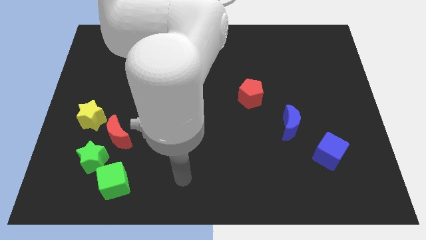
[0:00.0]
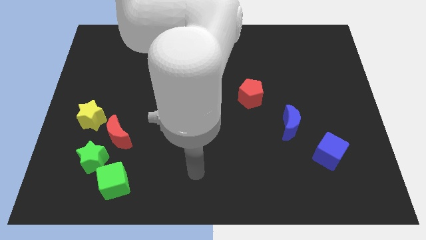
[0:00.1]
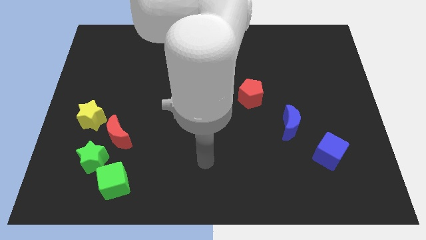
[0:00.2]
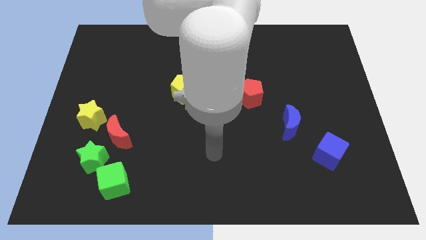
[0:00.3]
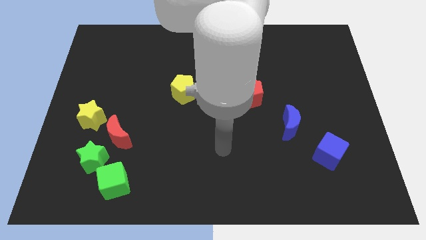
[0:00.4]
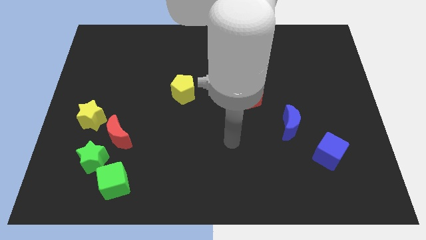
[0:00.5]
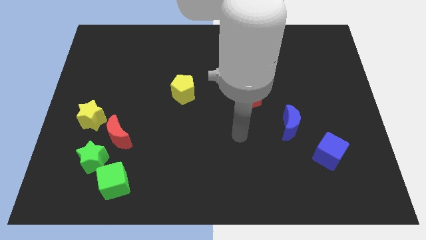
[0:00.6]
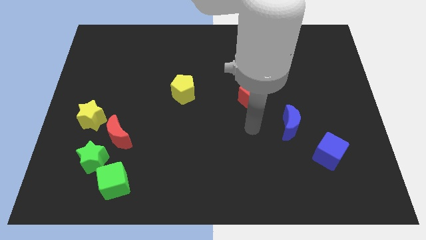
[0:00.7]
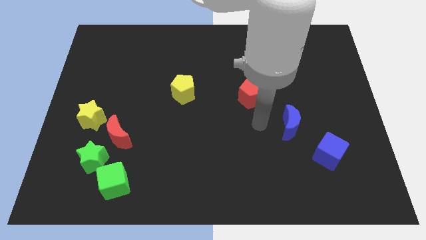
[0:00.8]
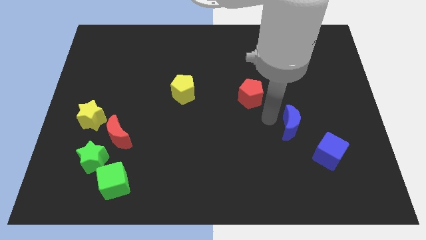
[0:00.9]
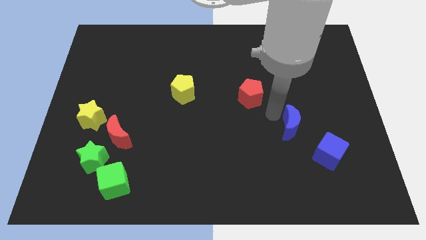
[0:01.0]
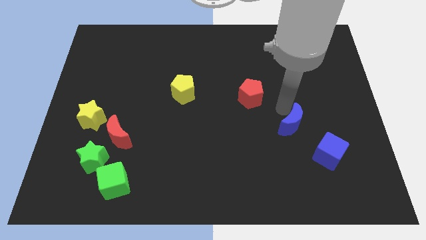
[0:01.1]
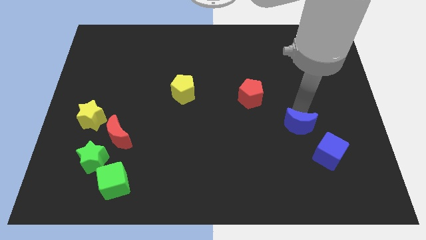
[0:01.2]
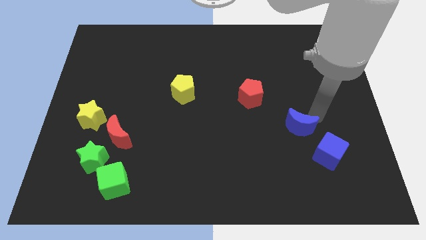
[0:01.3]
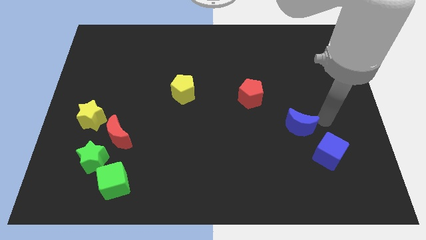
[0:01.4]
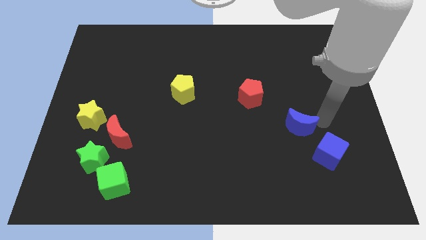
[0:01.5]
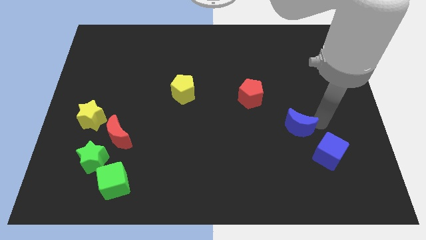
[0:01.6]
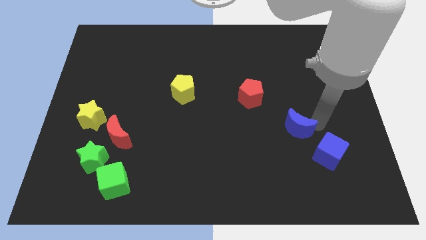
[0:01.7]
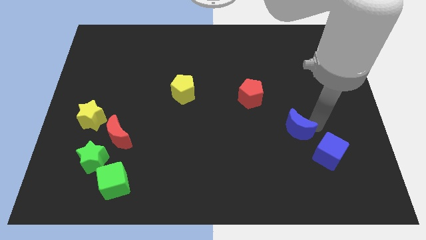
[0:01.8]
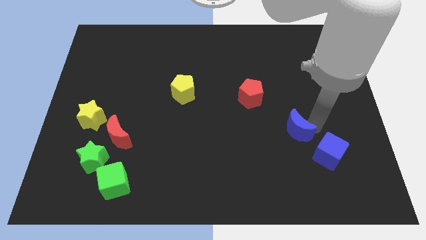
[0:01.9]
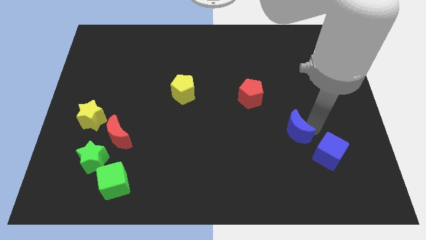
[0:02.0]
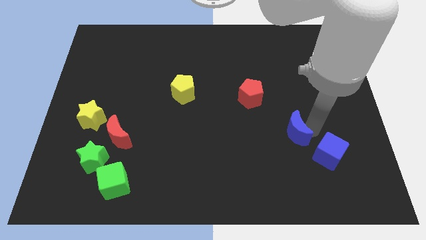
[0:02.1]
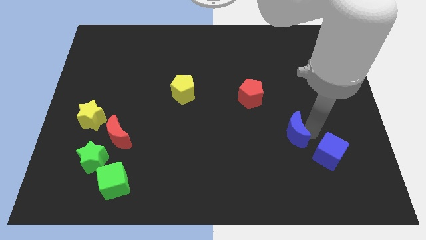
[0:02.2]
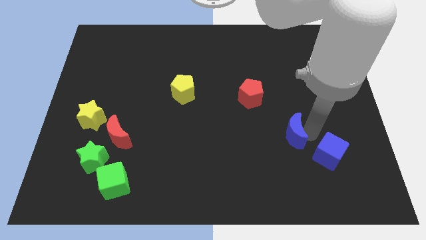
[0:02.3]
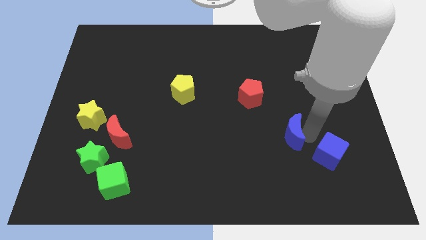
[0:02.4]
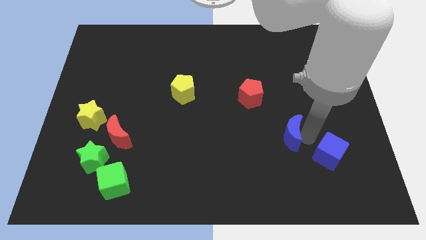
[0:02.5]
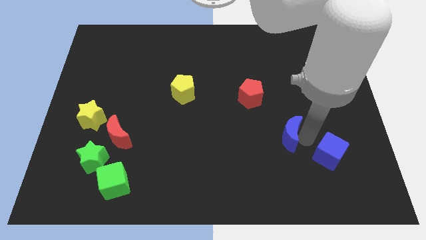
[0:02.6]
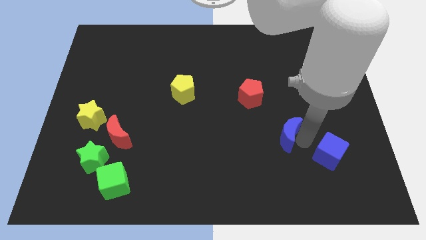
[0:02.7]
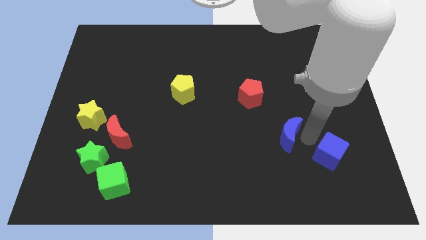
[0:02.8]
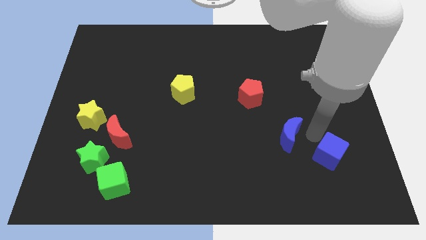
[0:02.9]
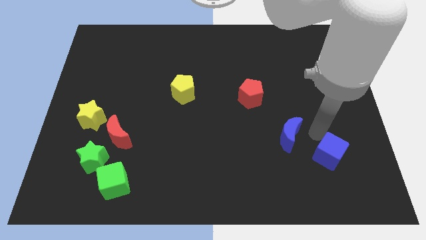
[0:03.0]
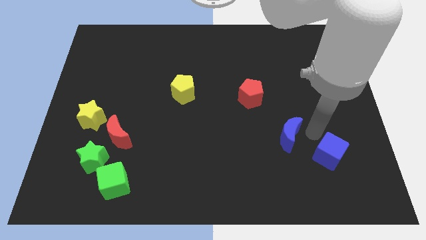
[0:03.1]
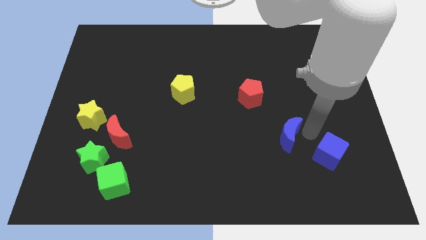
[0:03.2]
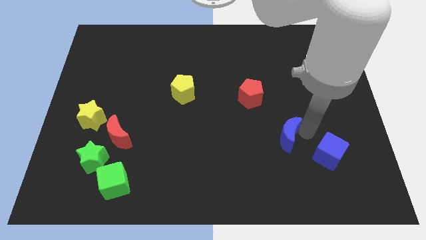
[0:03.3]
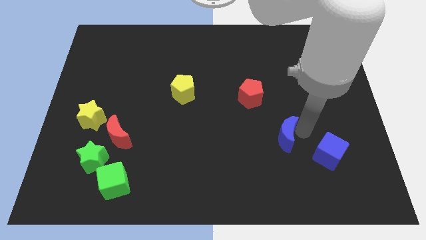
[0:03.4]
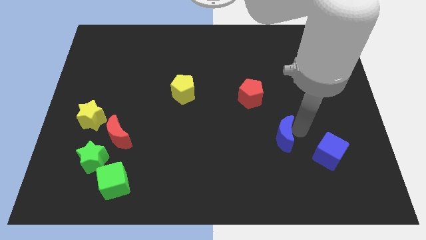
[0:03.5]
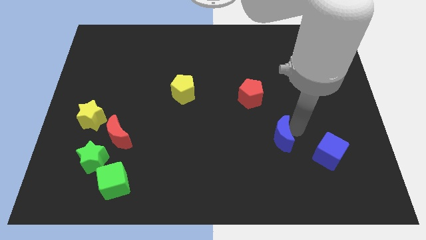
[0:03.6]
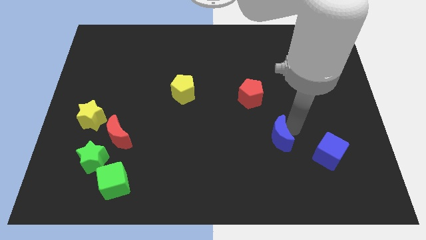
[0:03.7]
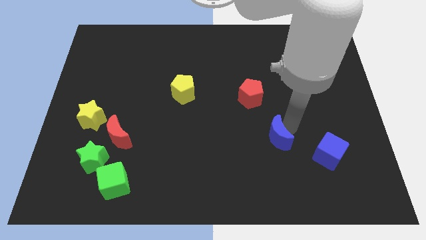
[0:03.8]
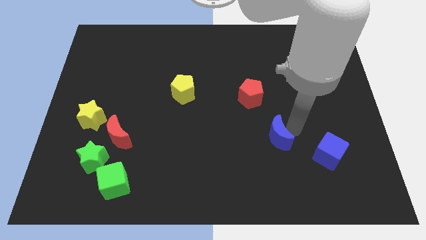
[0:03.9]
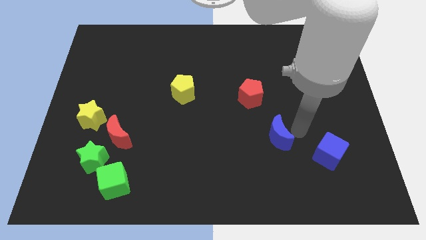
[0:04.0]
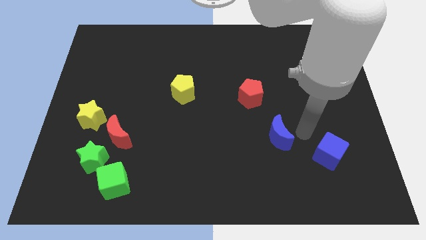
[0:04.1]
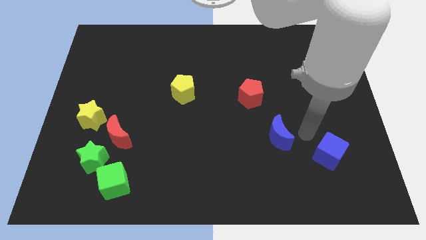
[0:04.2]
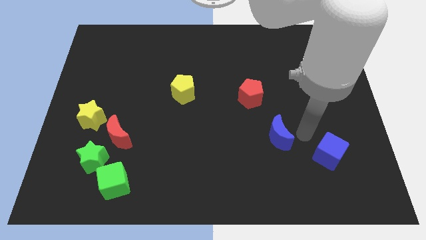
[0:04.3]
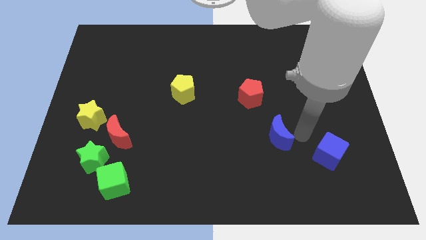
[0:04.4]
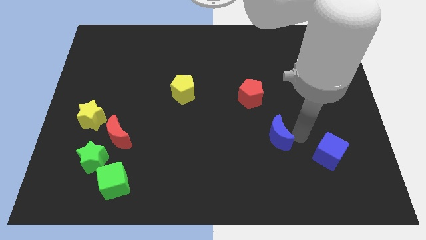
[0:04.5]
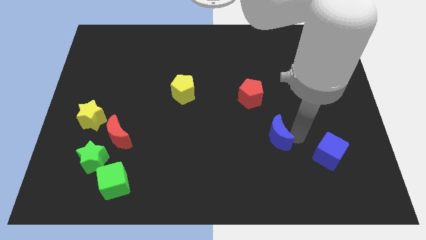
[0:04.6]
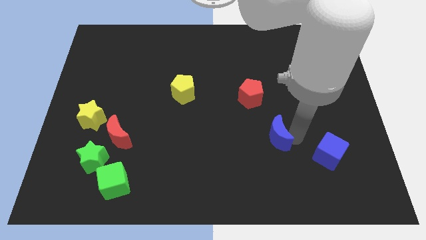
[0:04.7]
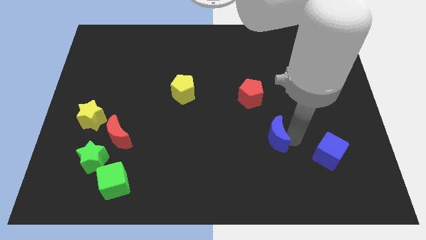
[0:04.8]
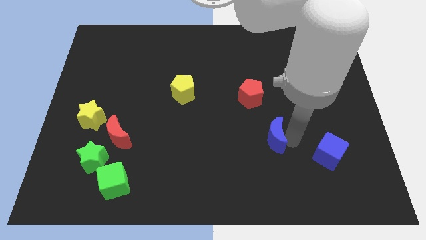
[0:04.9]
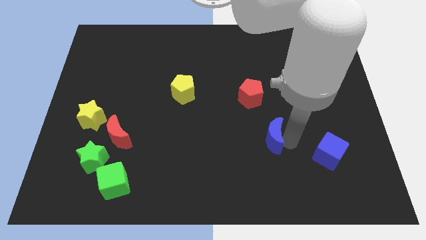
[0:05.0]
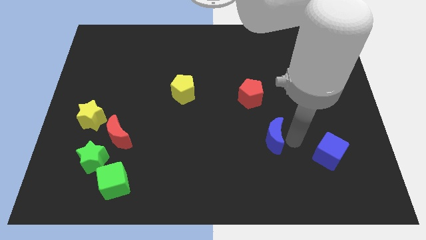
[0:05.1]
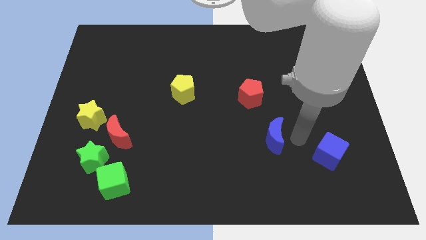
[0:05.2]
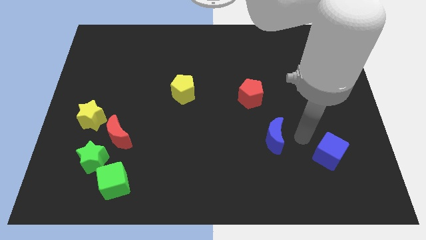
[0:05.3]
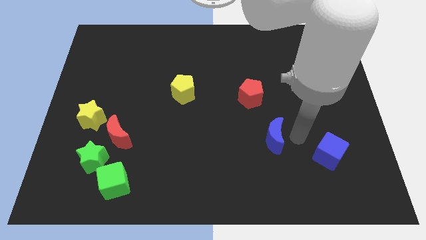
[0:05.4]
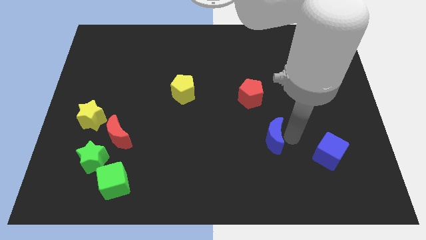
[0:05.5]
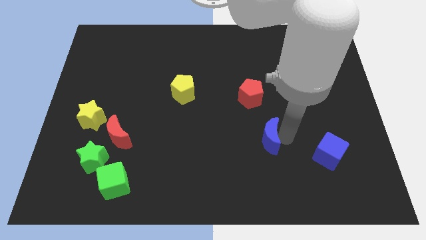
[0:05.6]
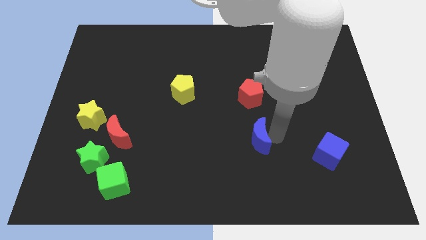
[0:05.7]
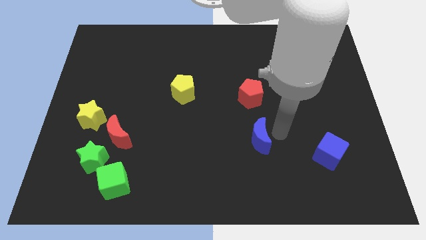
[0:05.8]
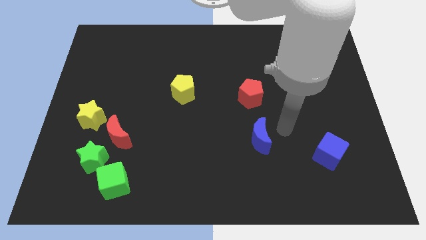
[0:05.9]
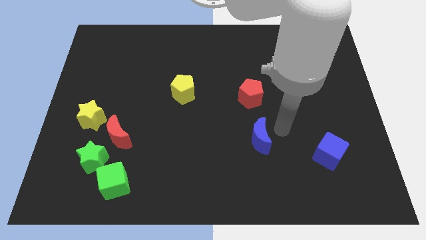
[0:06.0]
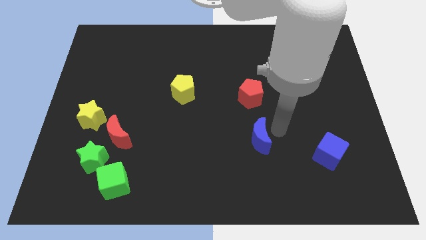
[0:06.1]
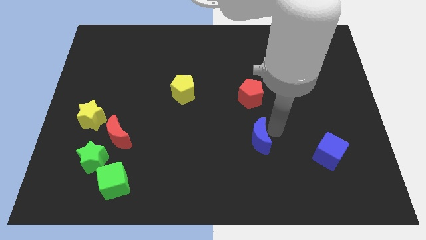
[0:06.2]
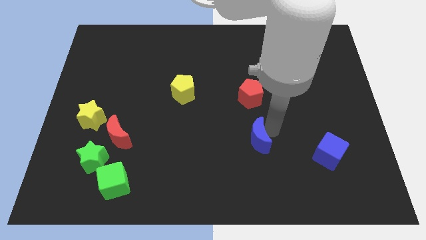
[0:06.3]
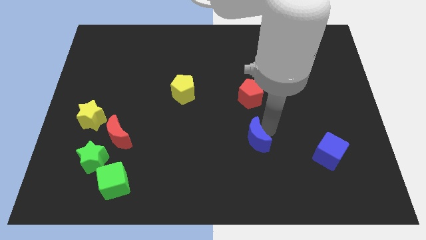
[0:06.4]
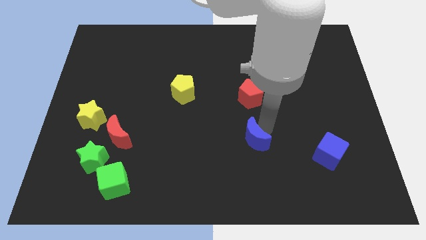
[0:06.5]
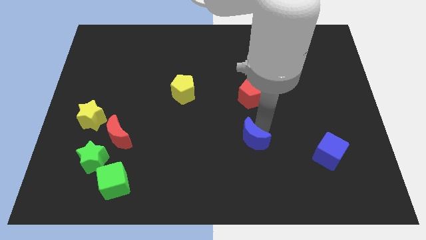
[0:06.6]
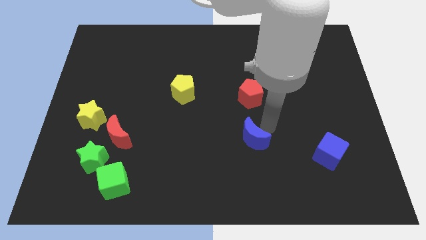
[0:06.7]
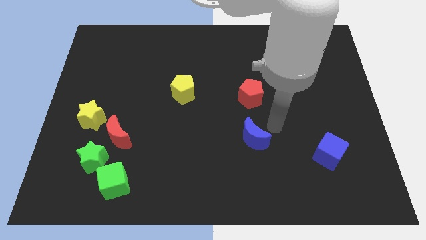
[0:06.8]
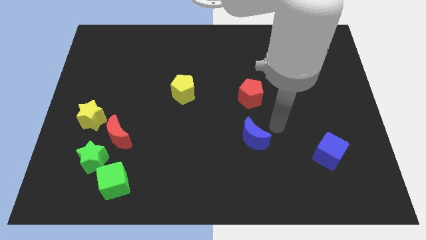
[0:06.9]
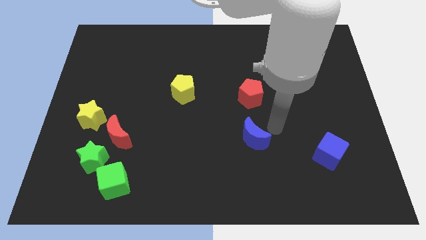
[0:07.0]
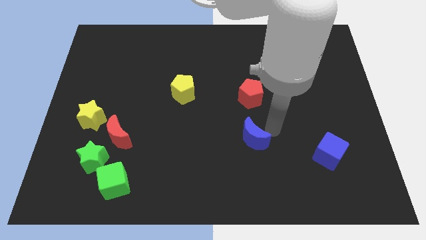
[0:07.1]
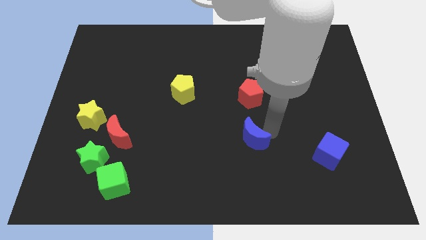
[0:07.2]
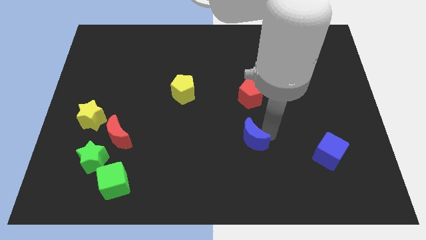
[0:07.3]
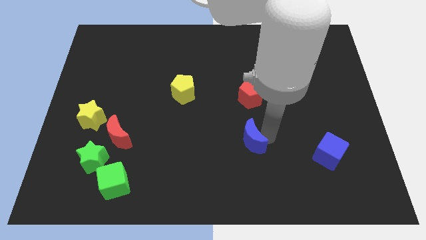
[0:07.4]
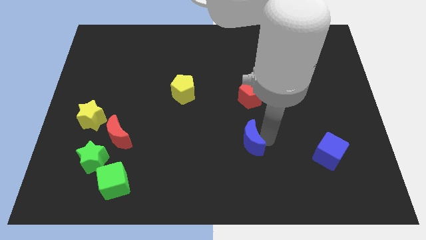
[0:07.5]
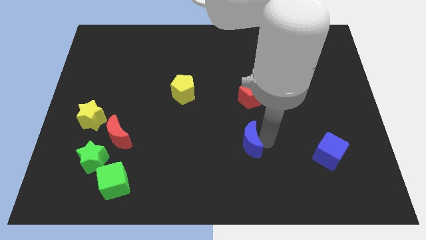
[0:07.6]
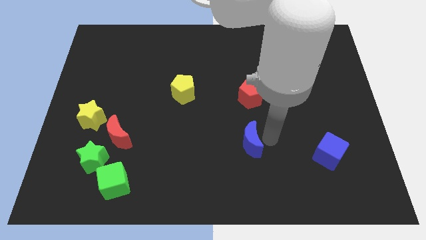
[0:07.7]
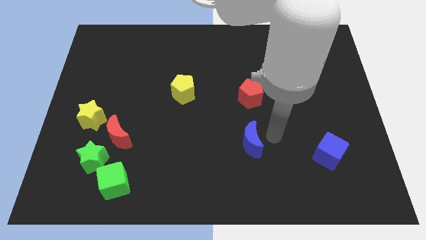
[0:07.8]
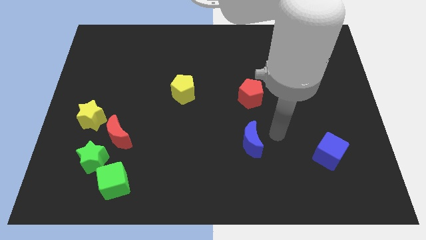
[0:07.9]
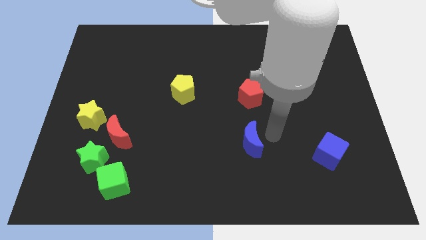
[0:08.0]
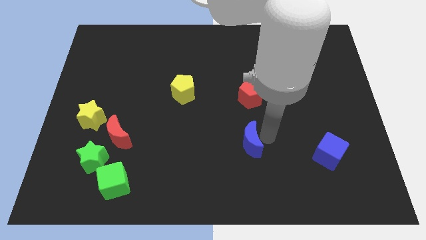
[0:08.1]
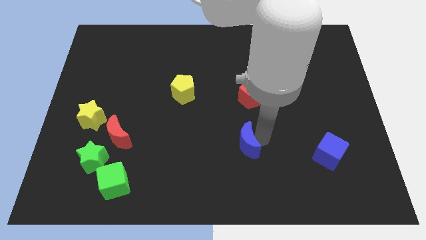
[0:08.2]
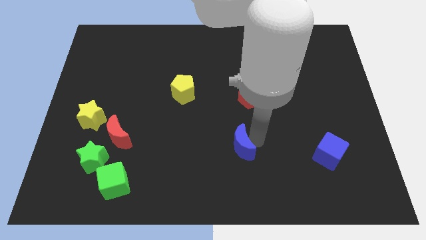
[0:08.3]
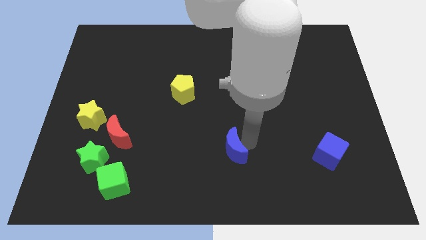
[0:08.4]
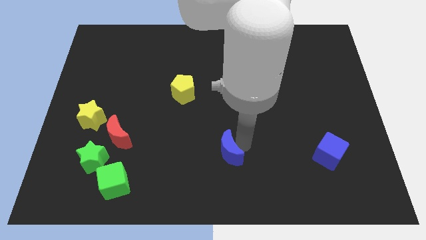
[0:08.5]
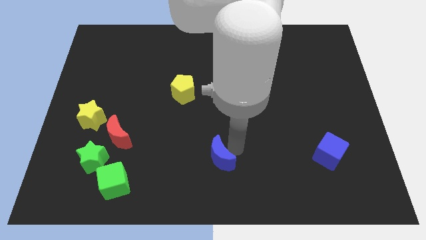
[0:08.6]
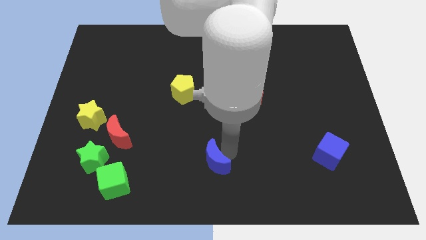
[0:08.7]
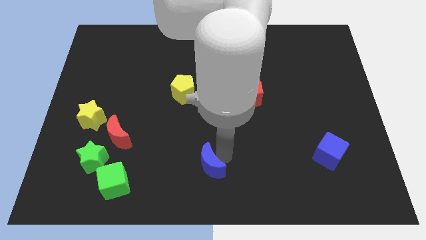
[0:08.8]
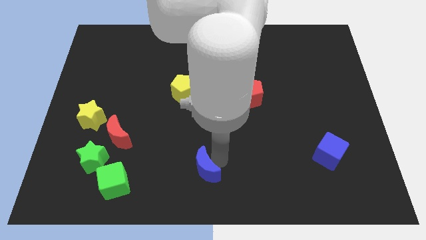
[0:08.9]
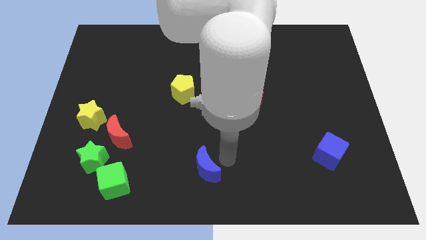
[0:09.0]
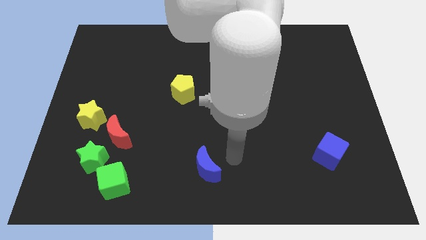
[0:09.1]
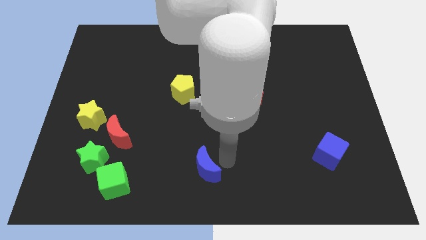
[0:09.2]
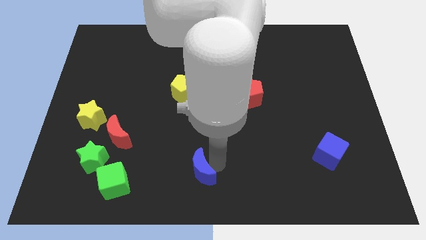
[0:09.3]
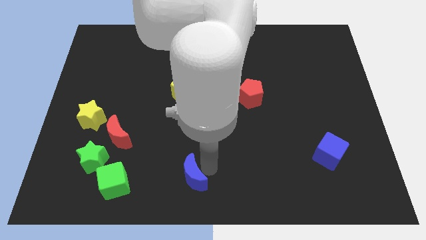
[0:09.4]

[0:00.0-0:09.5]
move the blue moon to the right side of the green cube
